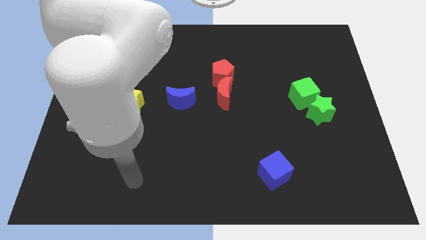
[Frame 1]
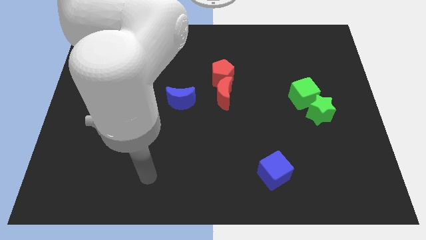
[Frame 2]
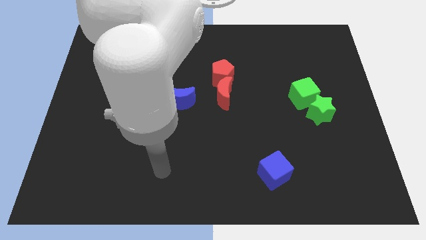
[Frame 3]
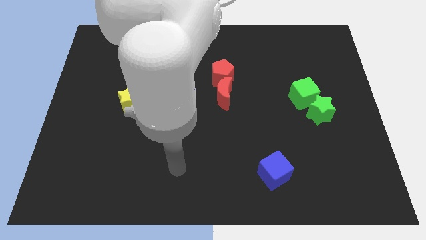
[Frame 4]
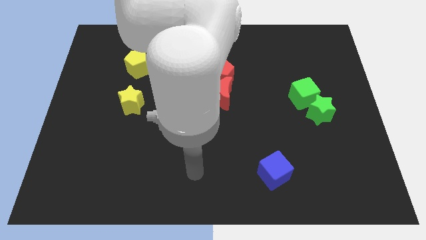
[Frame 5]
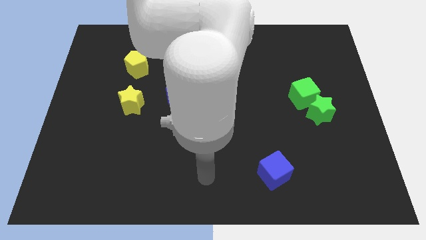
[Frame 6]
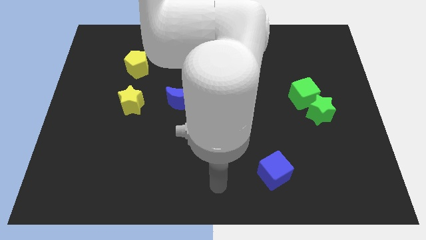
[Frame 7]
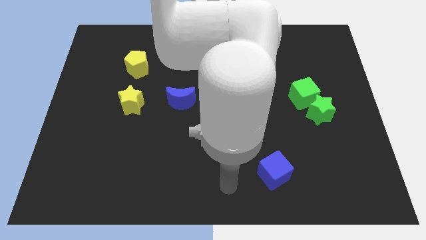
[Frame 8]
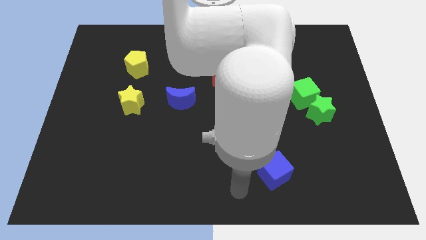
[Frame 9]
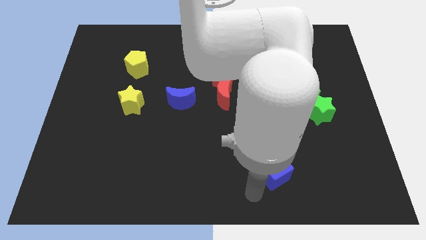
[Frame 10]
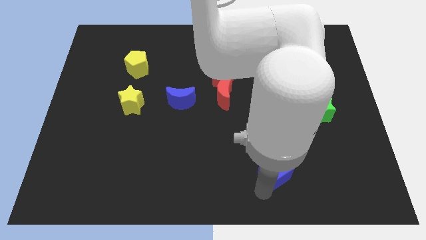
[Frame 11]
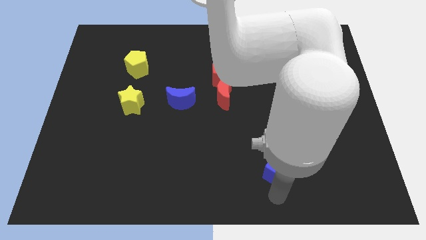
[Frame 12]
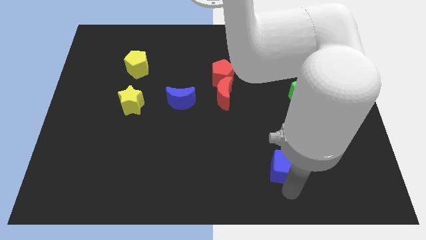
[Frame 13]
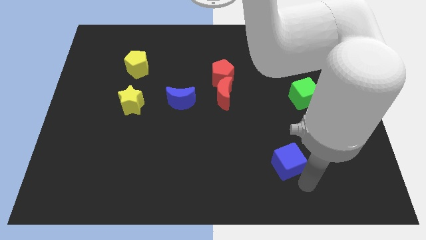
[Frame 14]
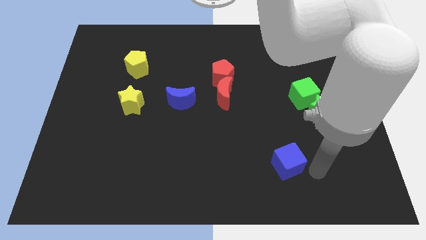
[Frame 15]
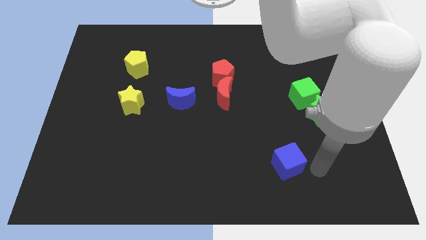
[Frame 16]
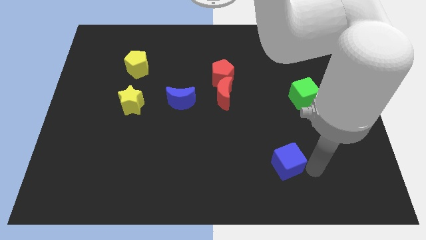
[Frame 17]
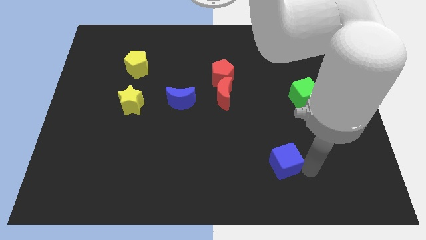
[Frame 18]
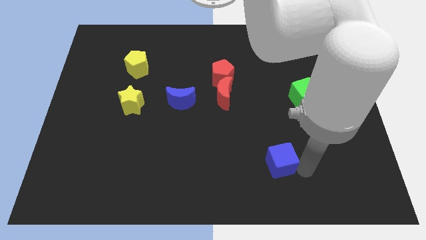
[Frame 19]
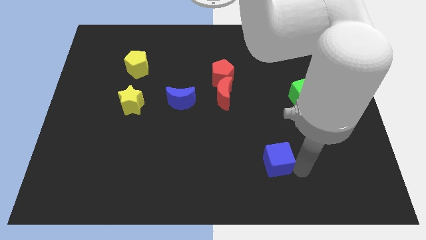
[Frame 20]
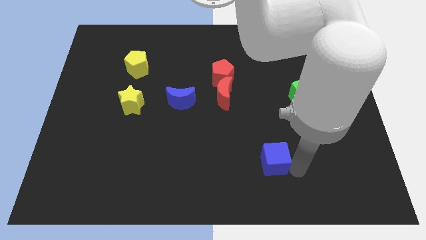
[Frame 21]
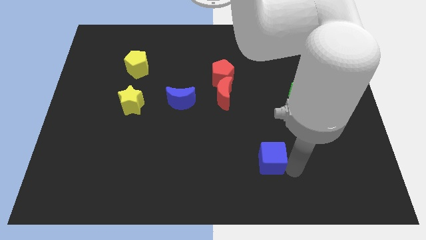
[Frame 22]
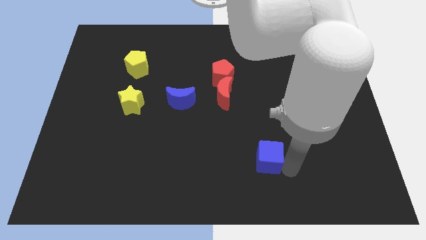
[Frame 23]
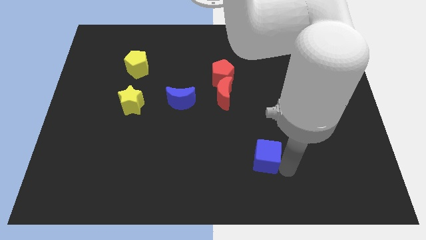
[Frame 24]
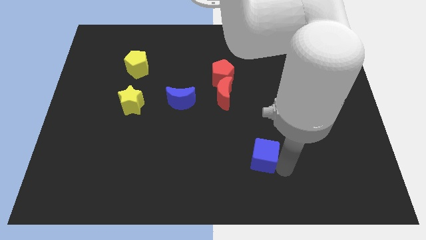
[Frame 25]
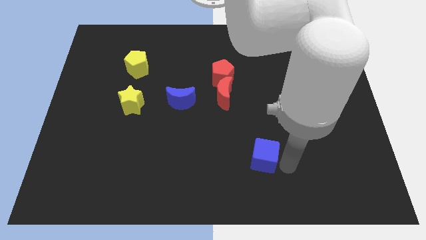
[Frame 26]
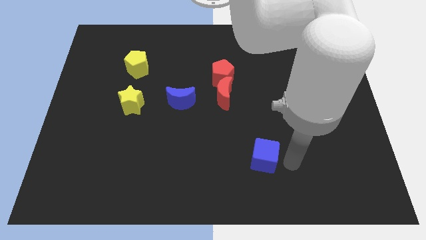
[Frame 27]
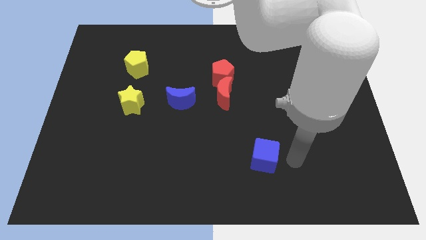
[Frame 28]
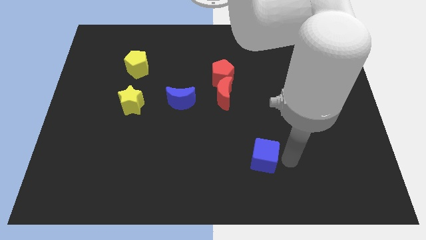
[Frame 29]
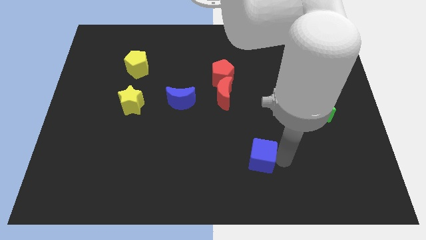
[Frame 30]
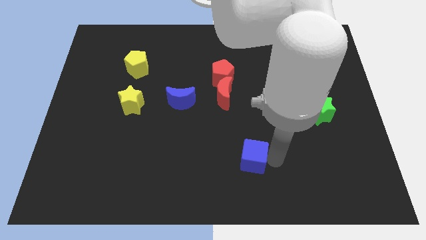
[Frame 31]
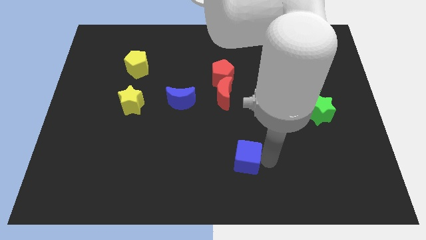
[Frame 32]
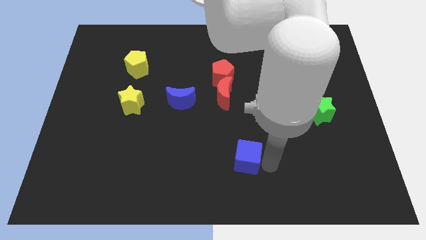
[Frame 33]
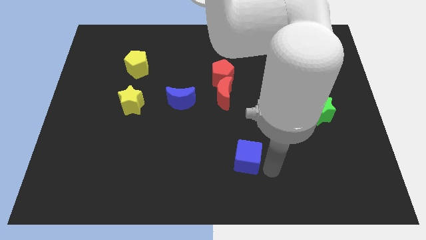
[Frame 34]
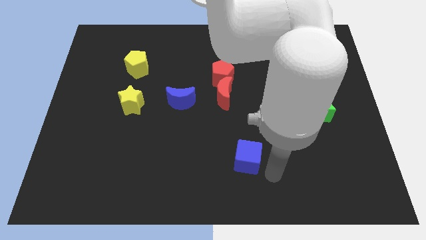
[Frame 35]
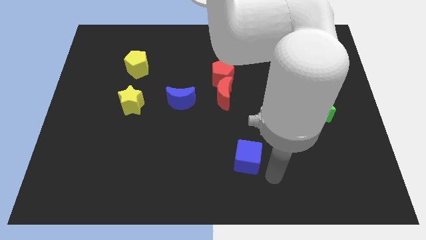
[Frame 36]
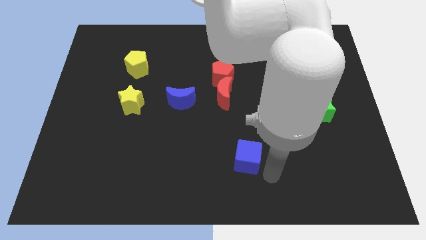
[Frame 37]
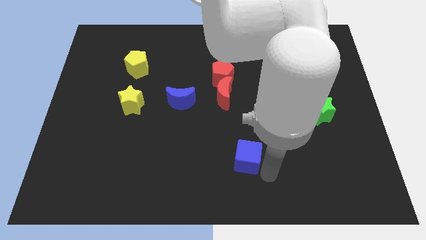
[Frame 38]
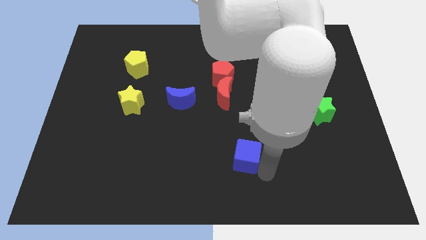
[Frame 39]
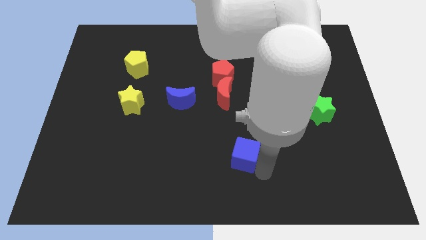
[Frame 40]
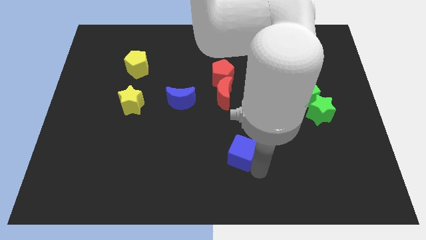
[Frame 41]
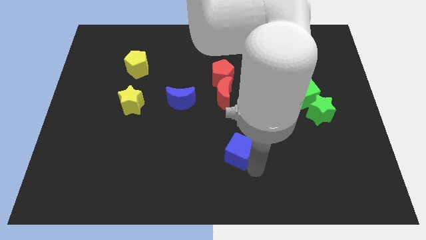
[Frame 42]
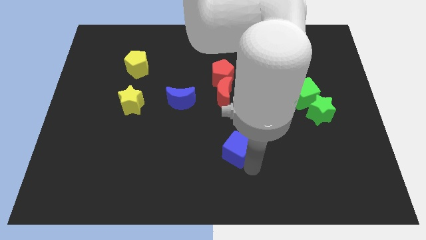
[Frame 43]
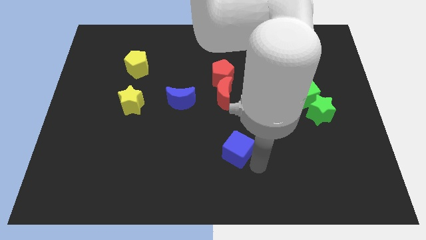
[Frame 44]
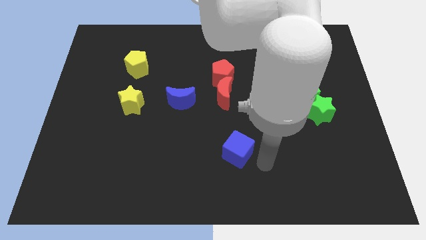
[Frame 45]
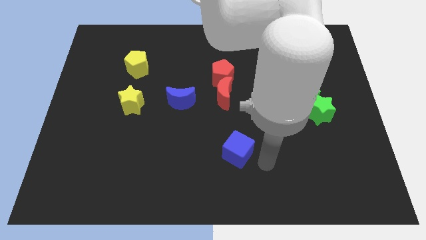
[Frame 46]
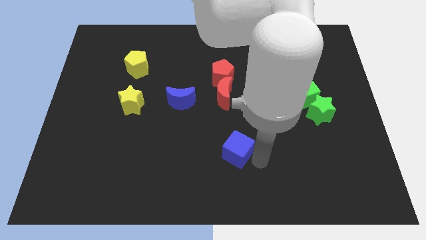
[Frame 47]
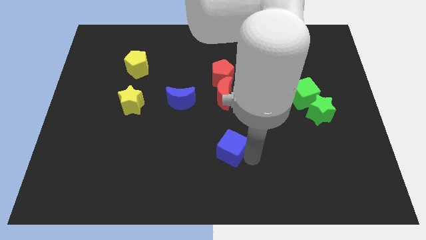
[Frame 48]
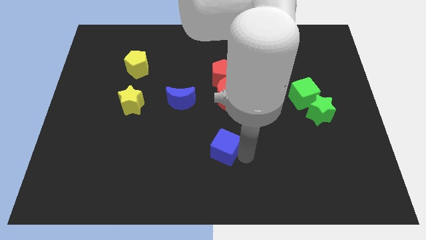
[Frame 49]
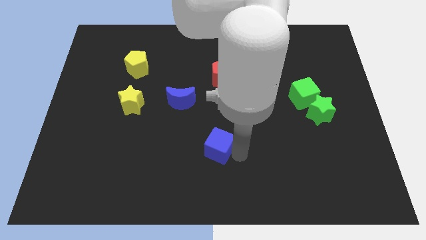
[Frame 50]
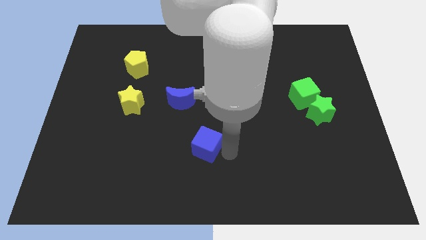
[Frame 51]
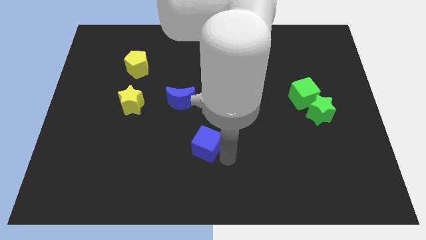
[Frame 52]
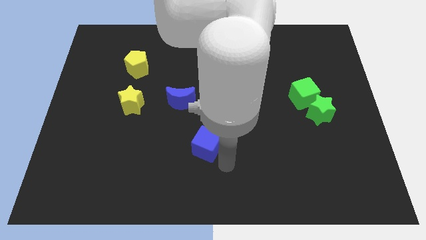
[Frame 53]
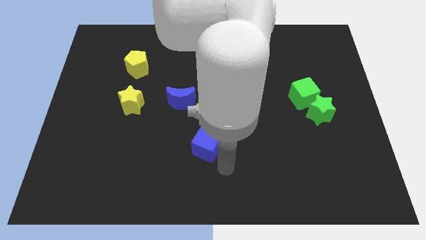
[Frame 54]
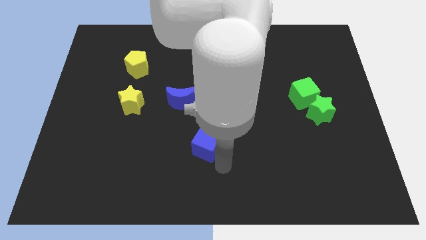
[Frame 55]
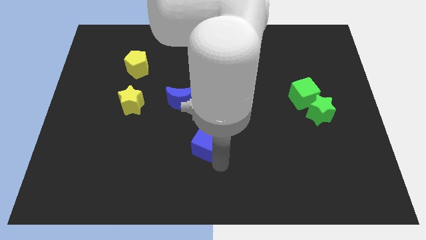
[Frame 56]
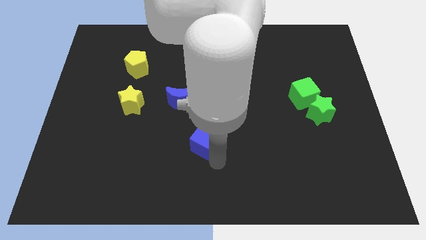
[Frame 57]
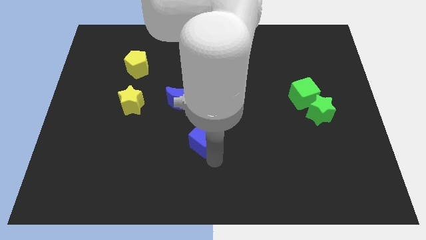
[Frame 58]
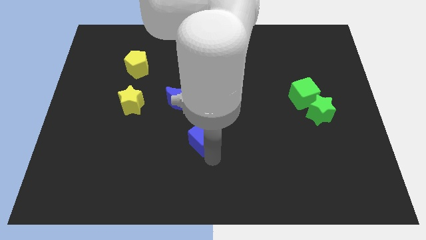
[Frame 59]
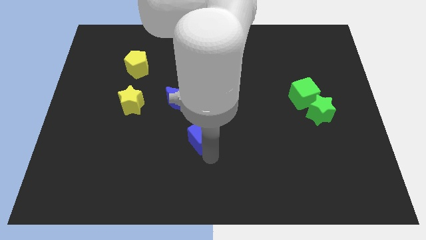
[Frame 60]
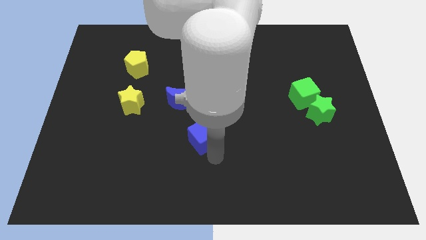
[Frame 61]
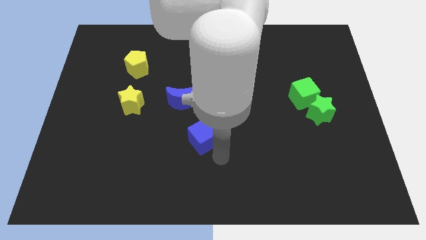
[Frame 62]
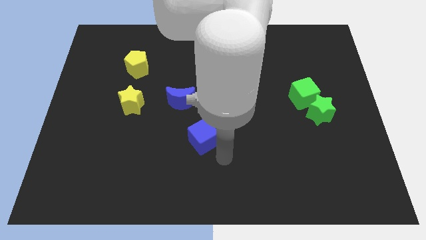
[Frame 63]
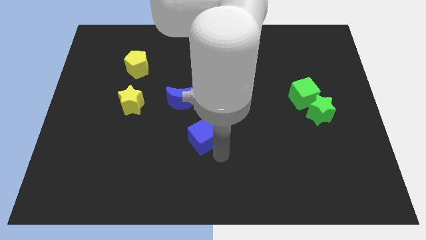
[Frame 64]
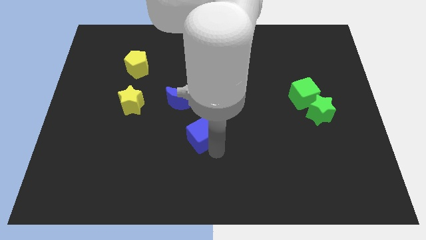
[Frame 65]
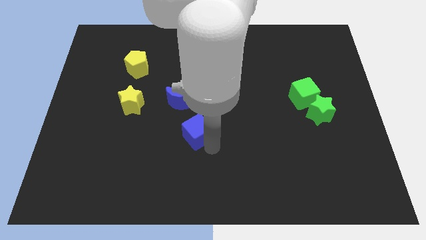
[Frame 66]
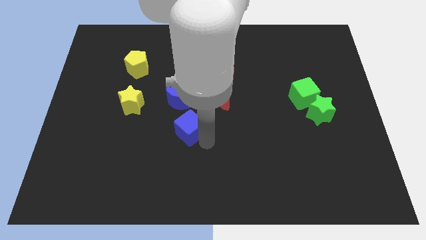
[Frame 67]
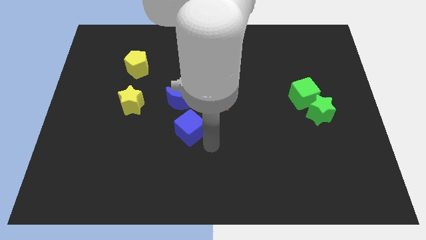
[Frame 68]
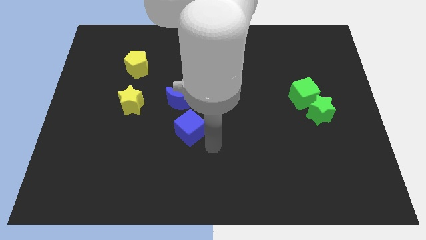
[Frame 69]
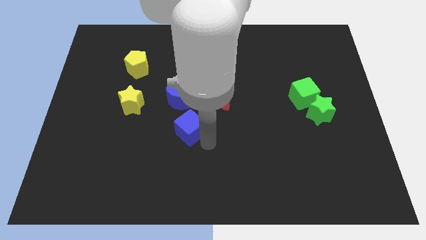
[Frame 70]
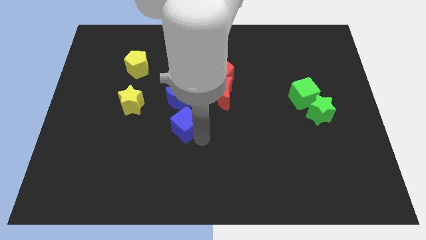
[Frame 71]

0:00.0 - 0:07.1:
move the blue cube upwards and left

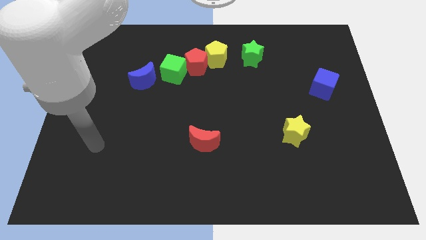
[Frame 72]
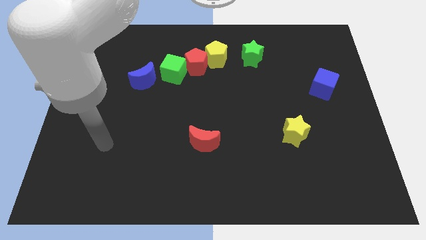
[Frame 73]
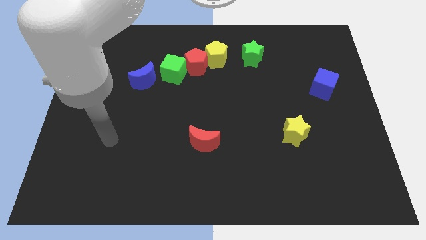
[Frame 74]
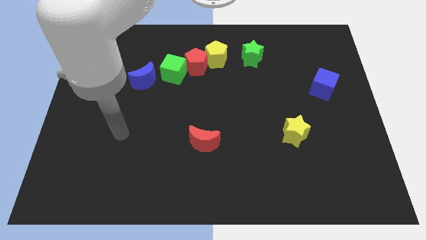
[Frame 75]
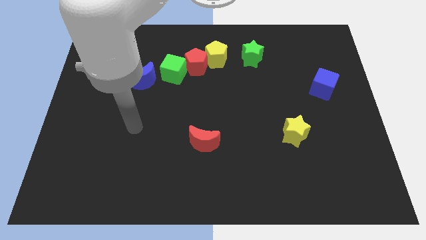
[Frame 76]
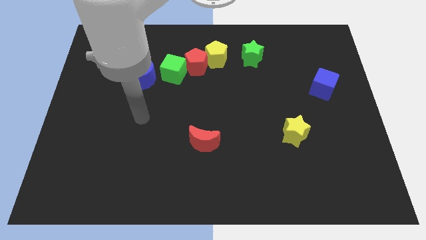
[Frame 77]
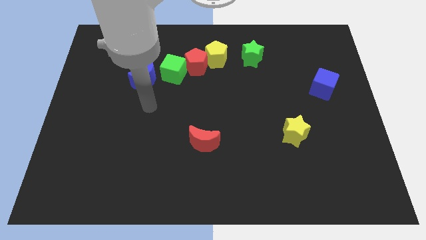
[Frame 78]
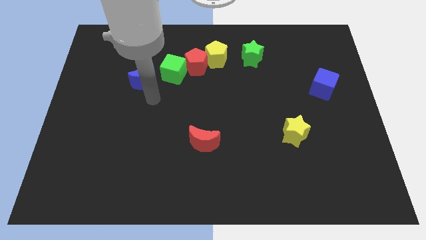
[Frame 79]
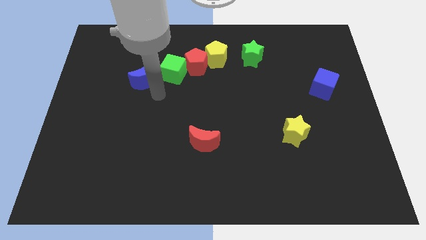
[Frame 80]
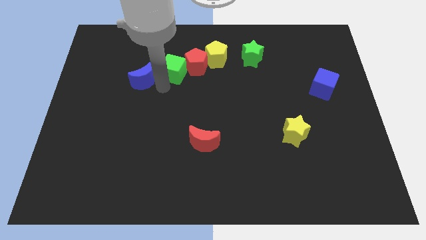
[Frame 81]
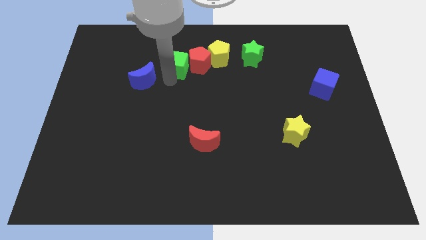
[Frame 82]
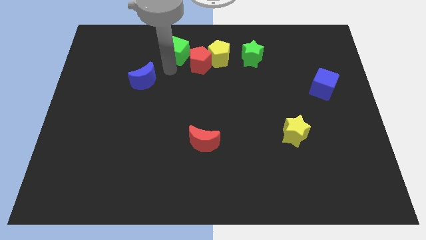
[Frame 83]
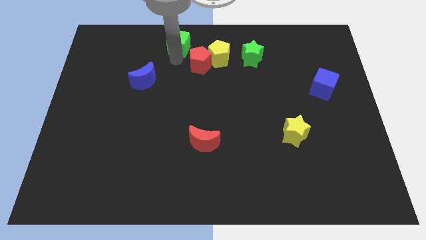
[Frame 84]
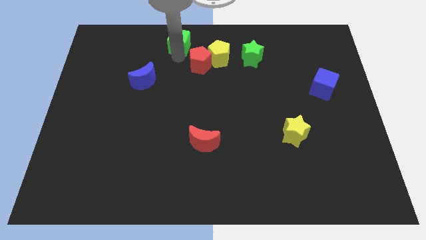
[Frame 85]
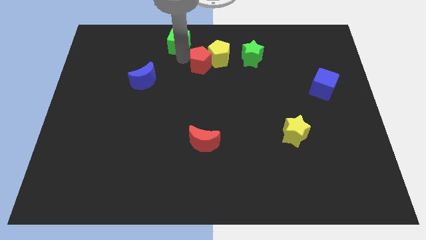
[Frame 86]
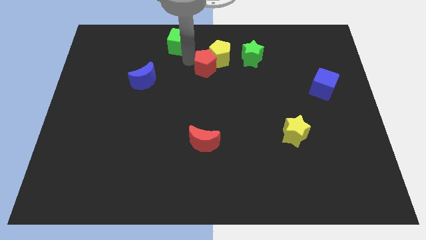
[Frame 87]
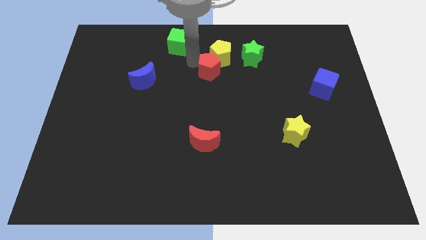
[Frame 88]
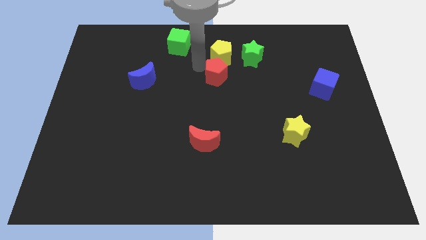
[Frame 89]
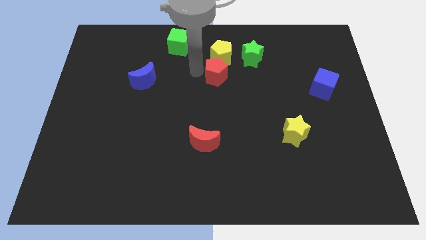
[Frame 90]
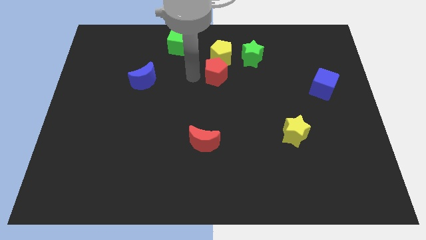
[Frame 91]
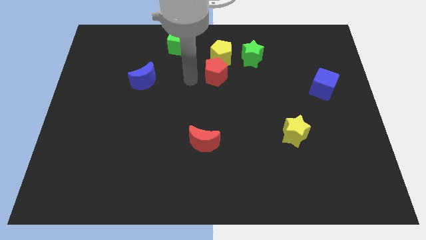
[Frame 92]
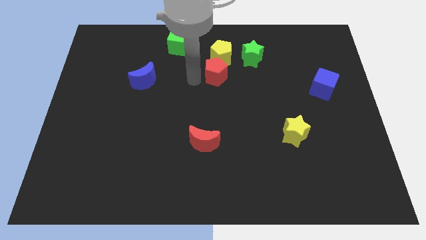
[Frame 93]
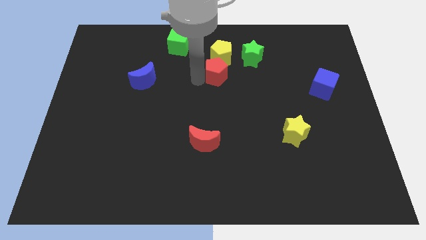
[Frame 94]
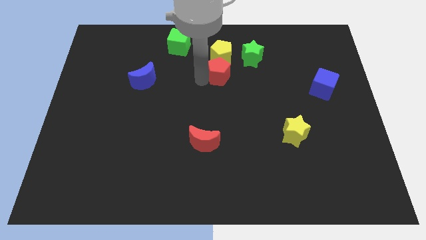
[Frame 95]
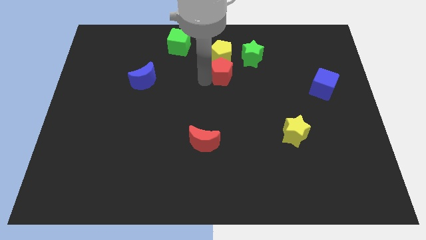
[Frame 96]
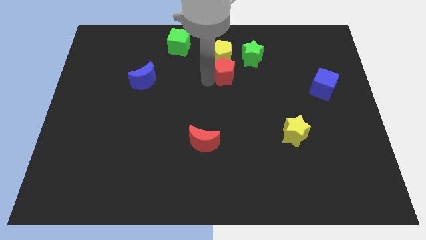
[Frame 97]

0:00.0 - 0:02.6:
move the red pentagon right slightly
